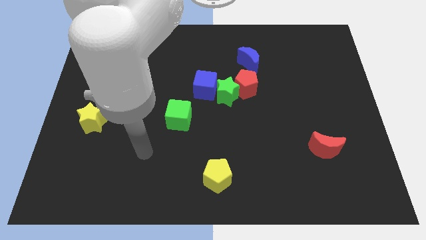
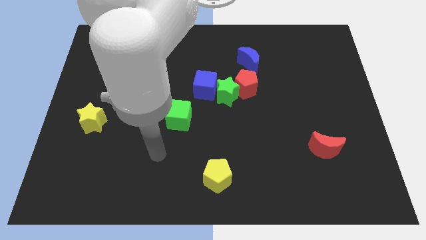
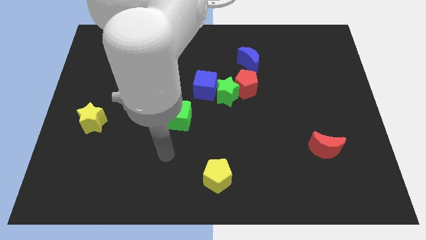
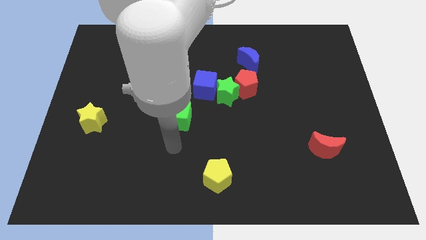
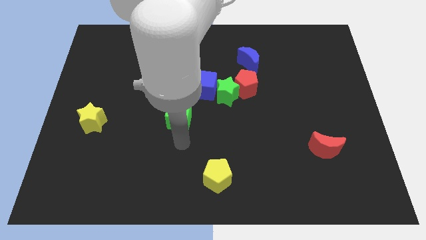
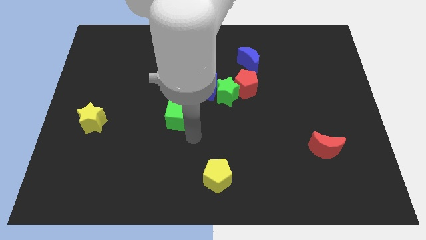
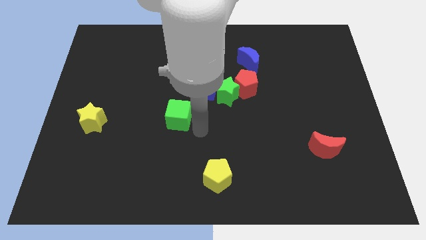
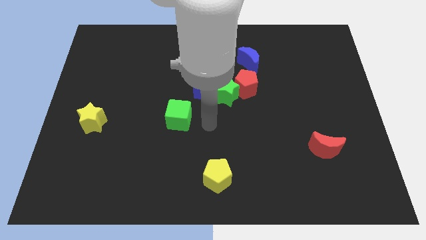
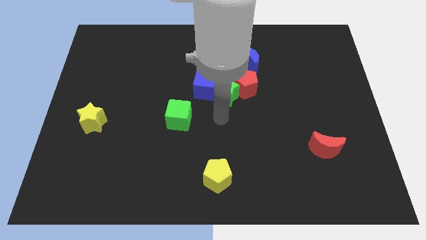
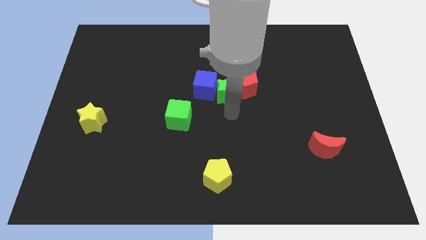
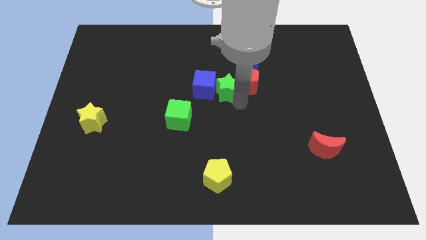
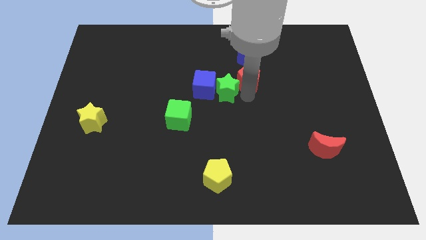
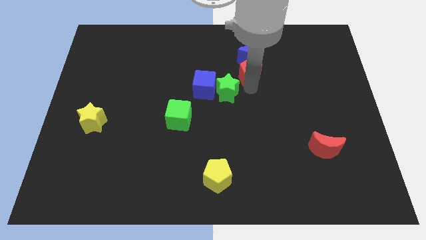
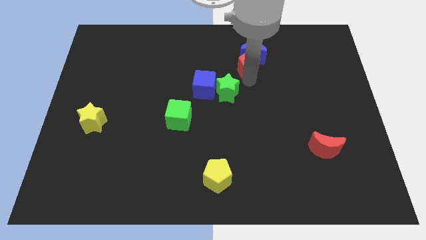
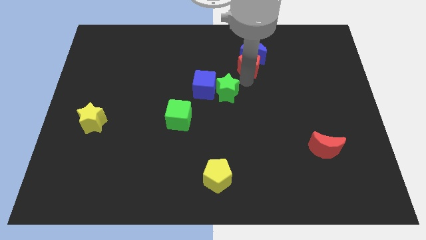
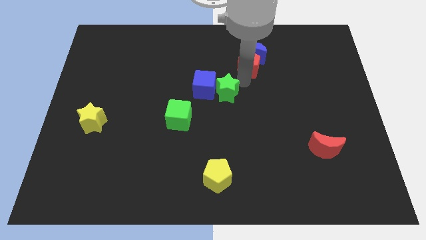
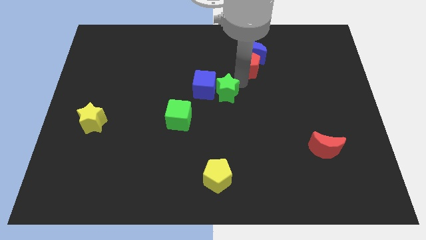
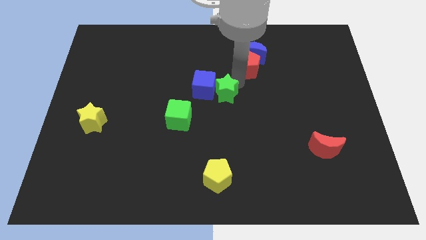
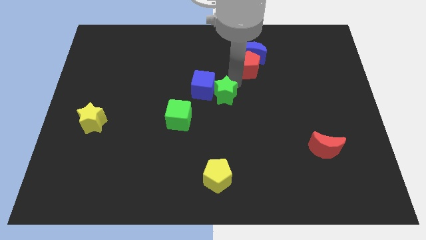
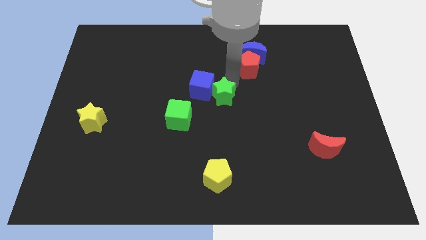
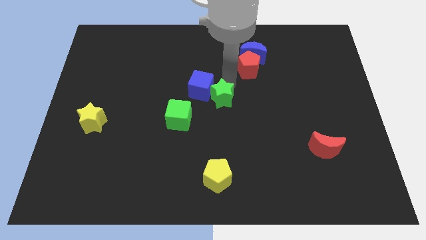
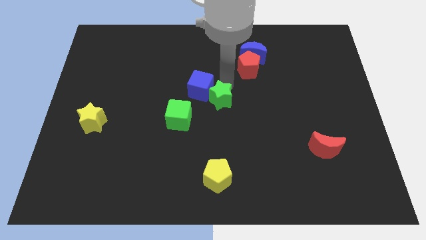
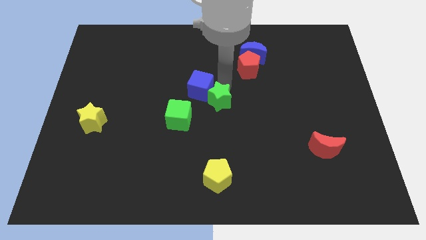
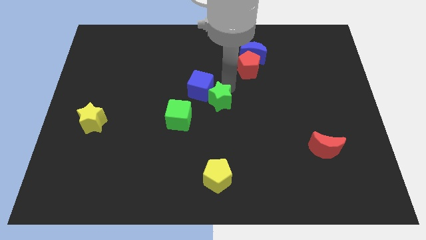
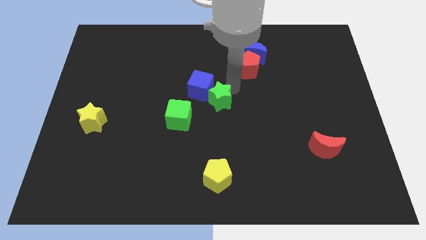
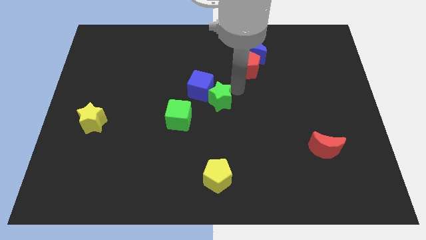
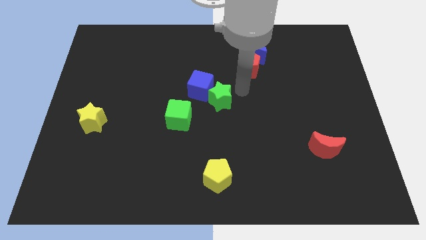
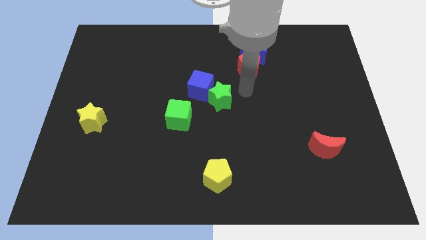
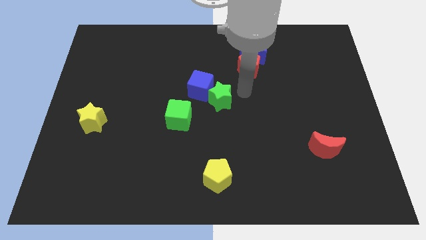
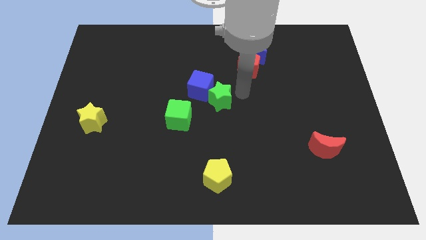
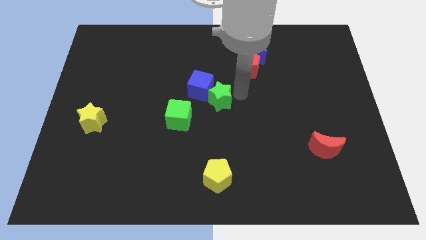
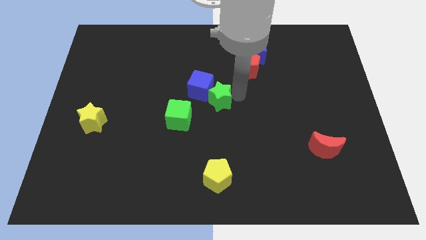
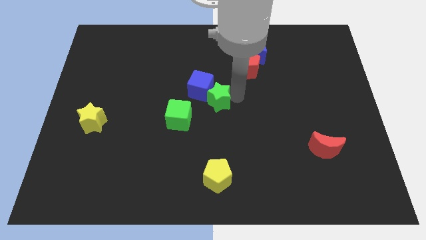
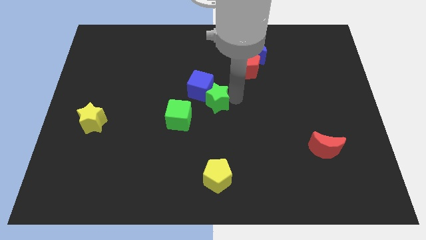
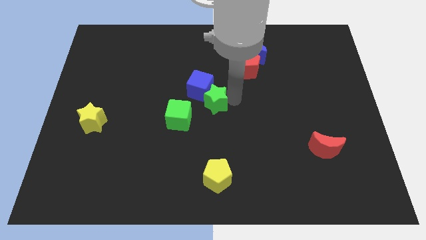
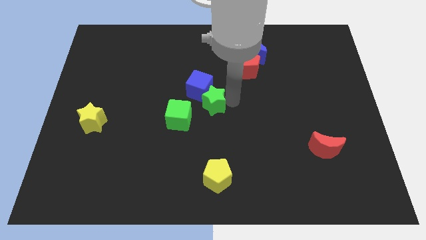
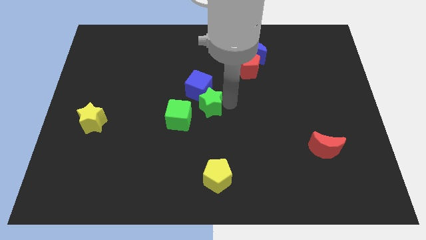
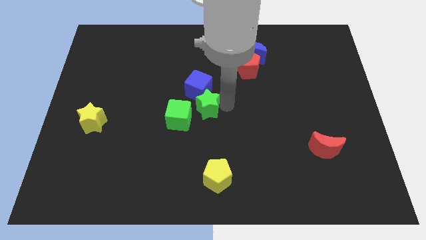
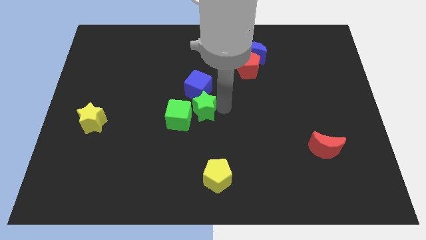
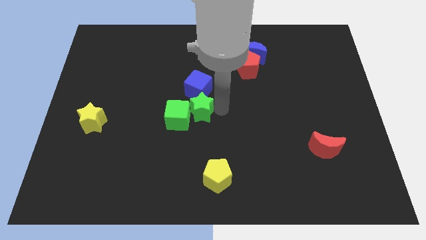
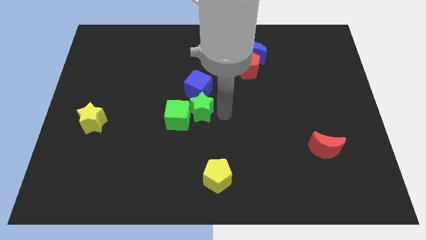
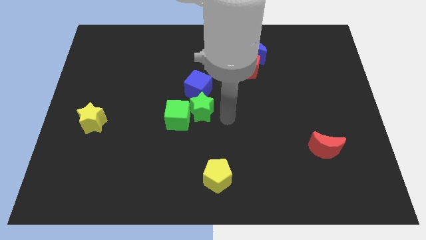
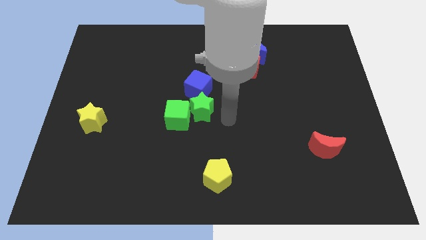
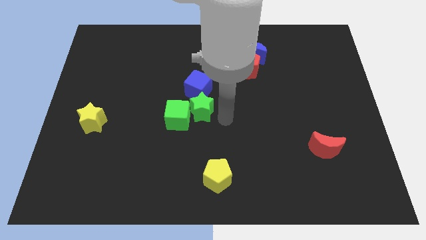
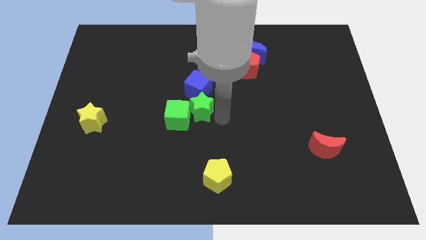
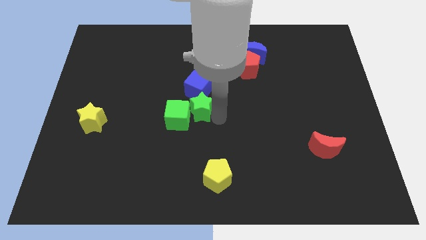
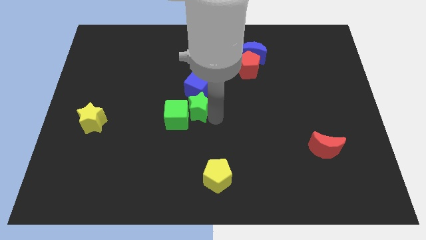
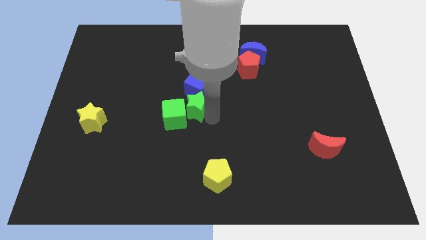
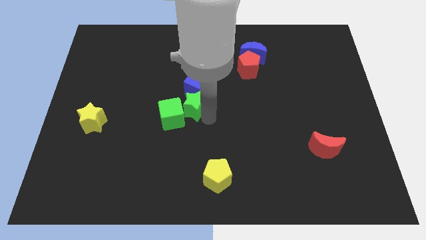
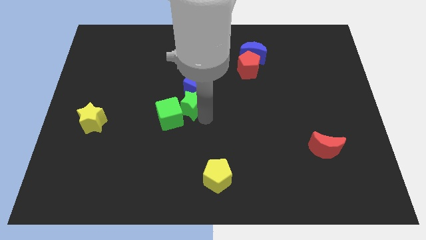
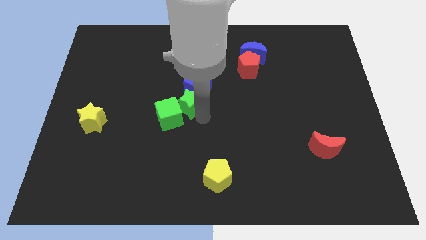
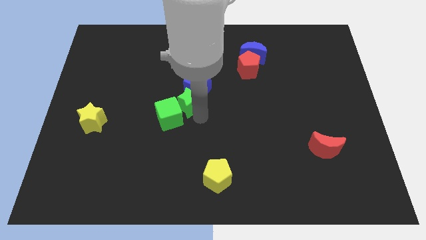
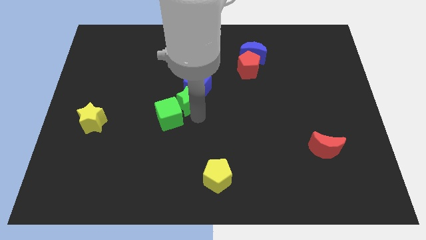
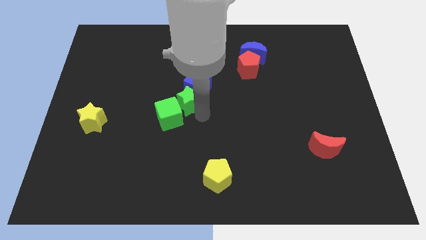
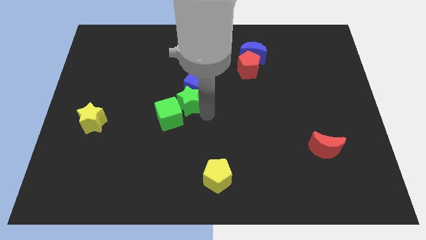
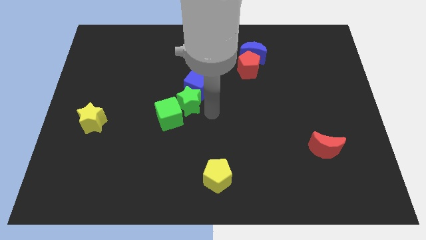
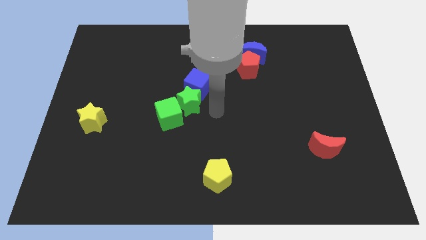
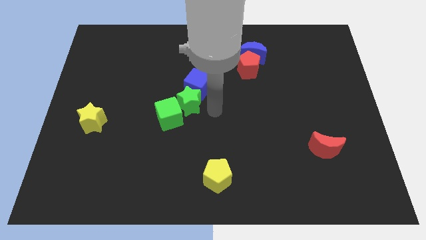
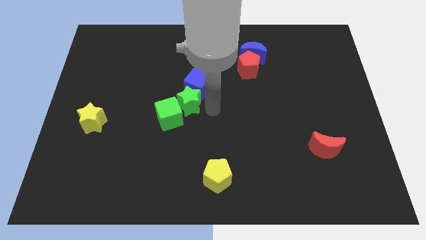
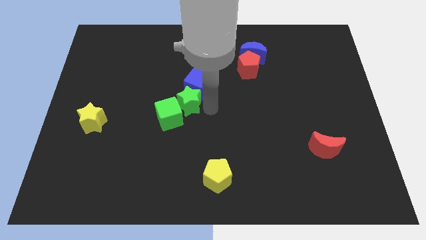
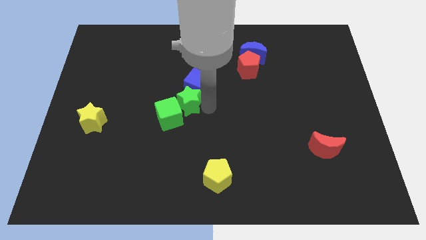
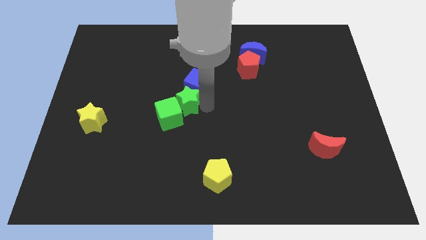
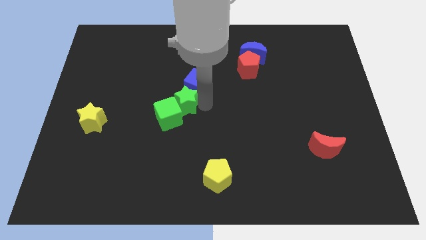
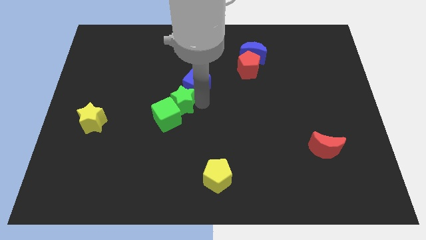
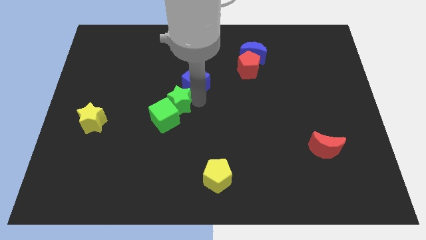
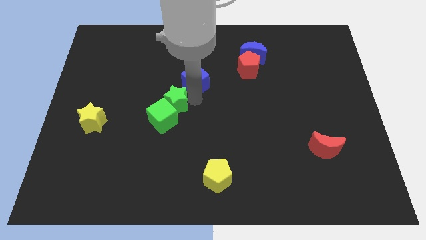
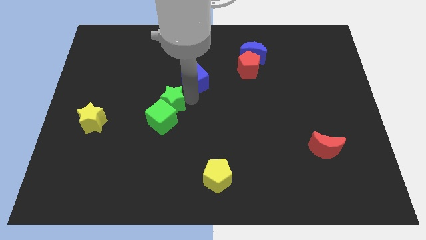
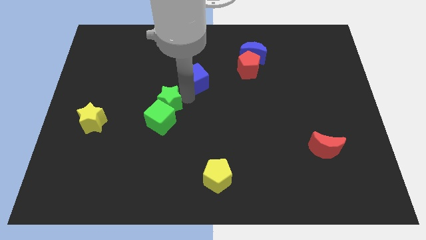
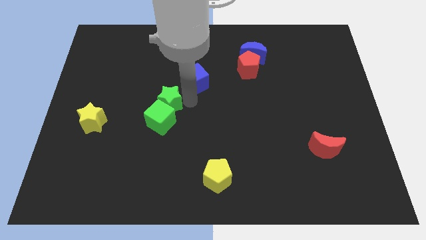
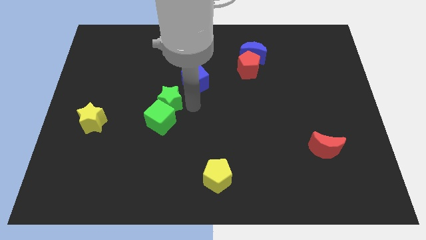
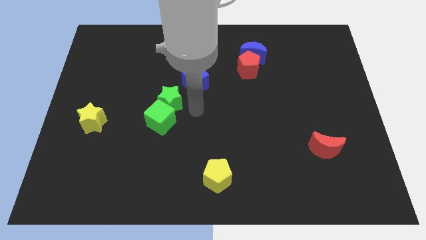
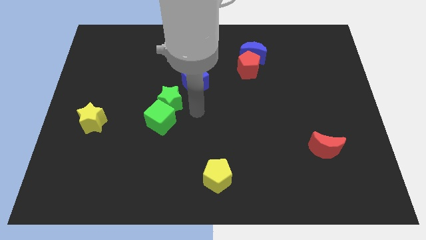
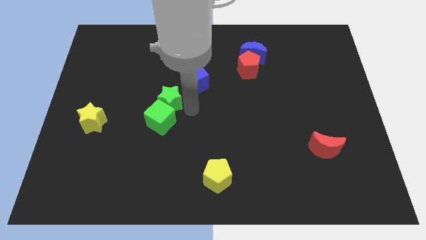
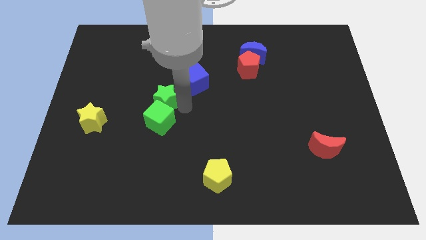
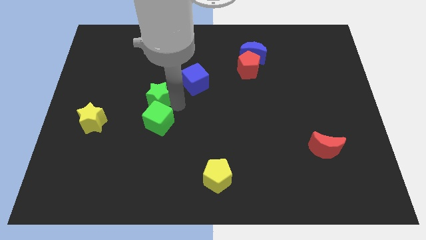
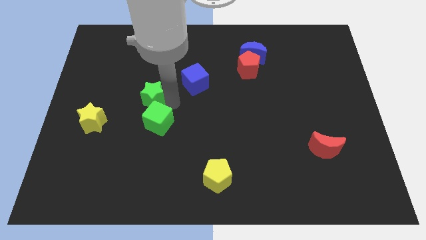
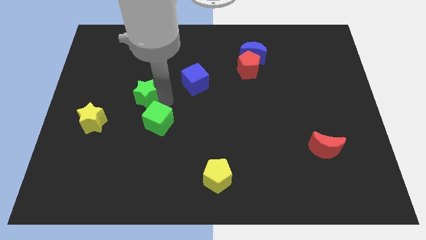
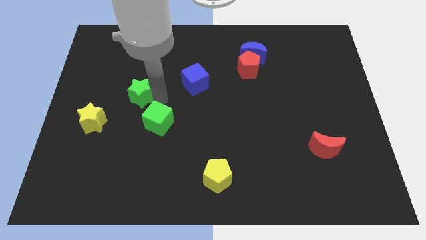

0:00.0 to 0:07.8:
push the green star to the left

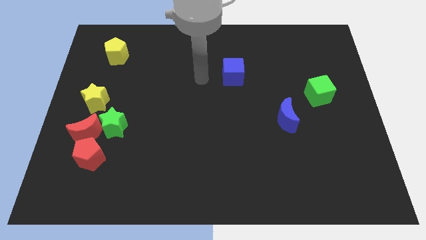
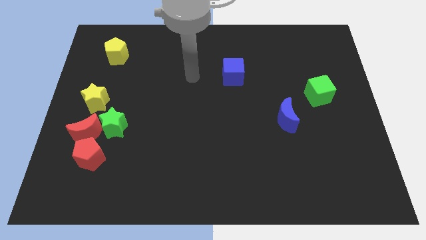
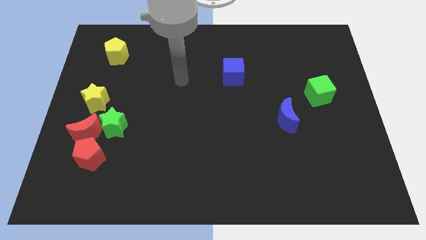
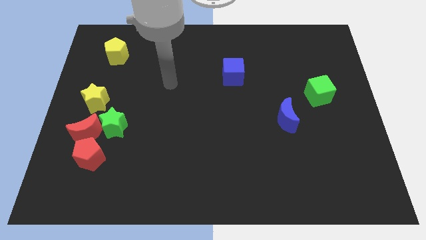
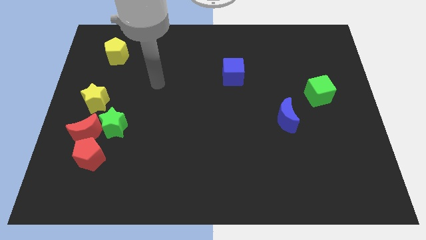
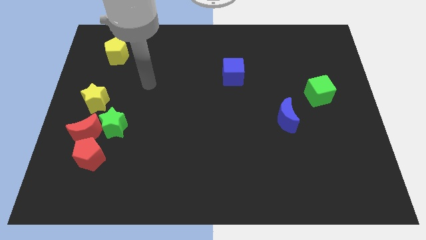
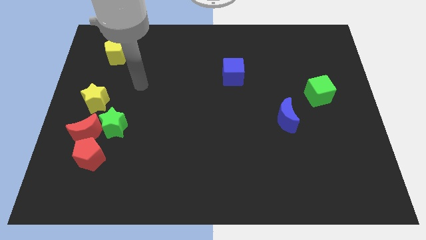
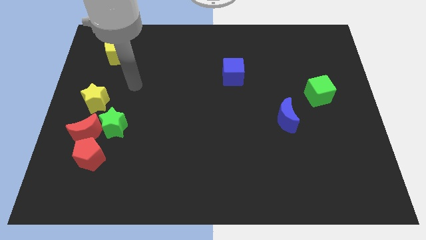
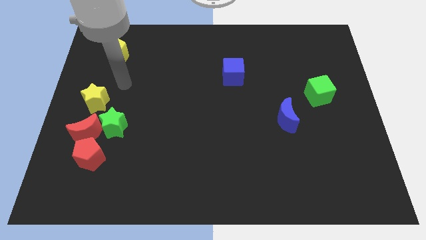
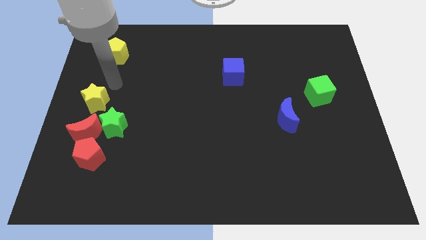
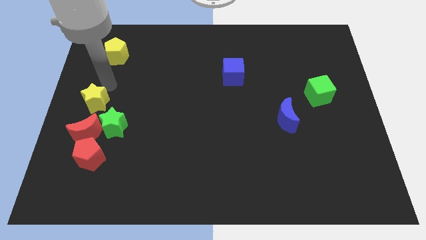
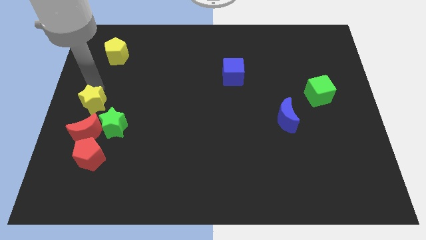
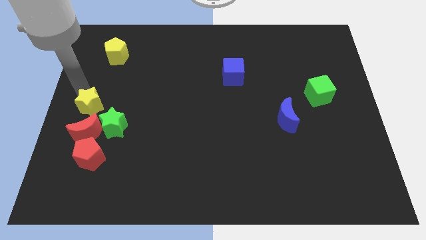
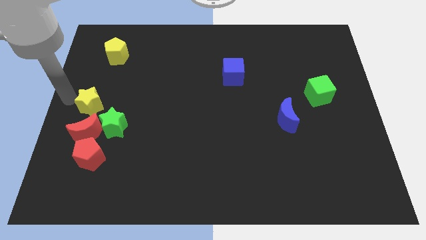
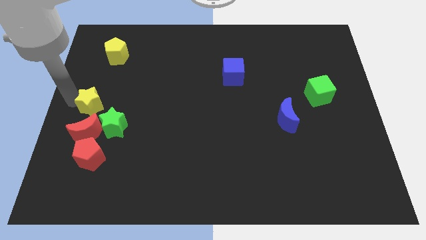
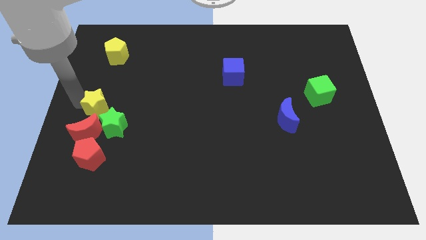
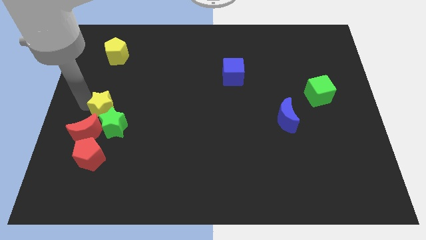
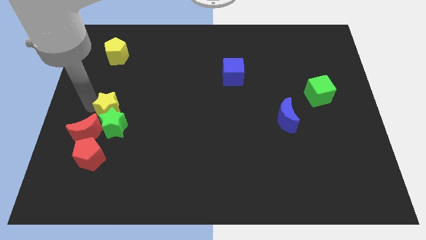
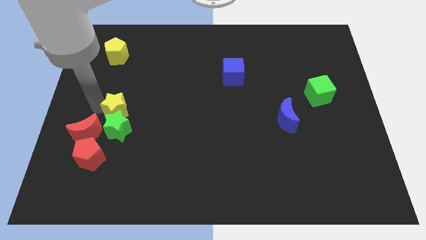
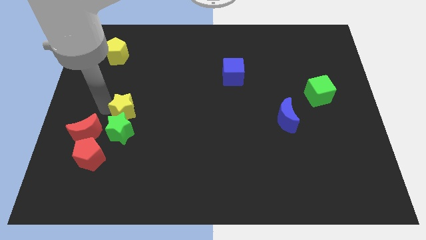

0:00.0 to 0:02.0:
slide the yellow star a little diagonally down and to the right
